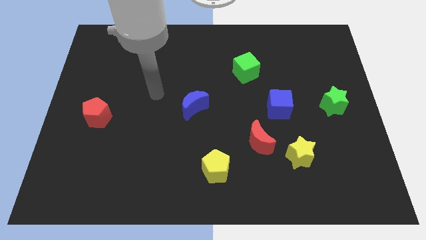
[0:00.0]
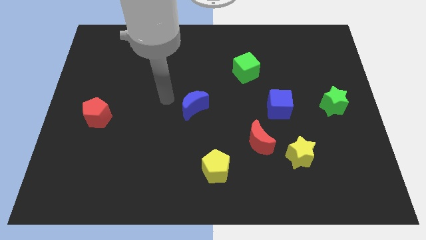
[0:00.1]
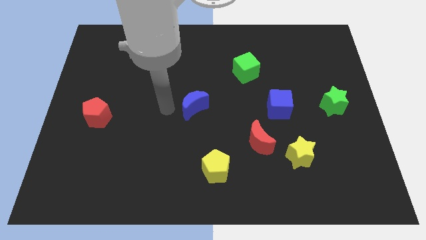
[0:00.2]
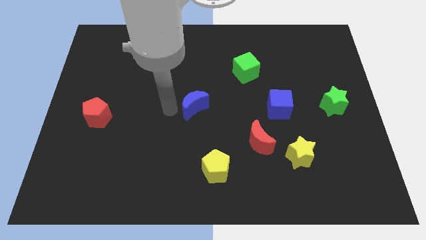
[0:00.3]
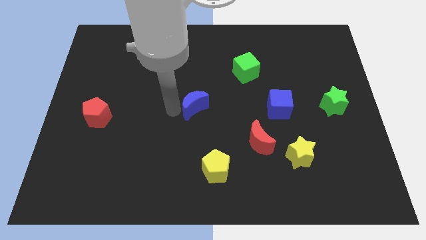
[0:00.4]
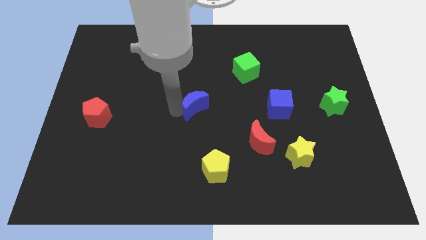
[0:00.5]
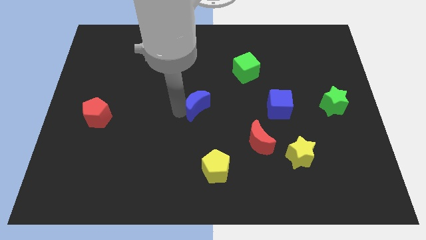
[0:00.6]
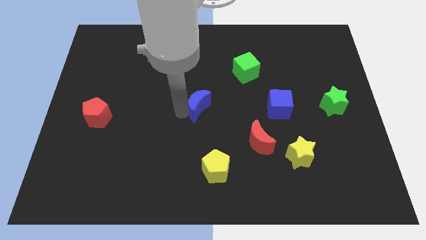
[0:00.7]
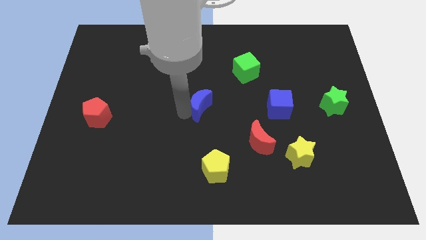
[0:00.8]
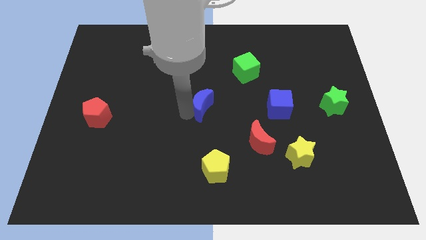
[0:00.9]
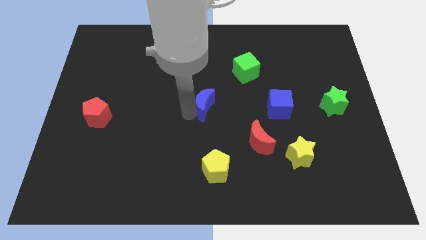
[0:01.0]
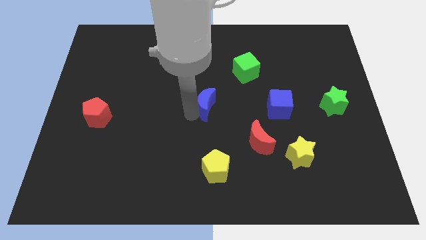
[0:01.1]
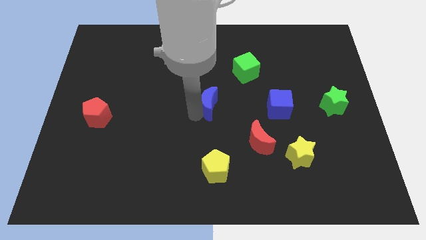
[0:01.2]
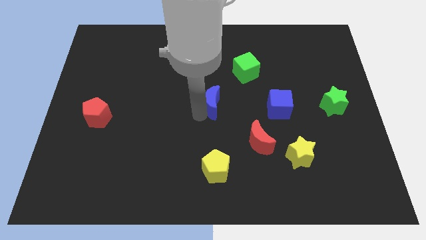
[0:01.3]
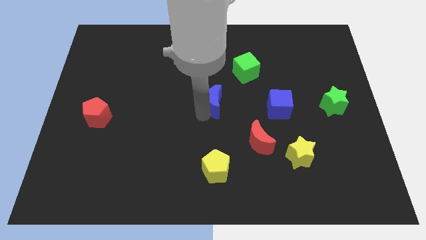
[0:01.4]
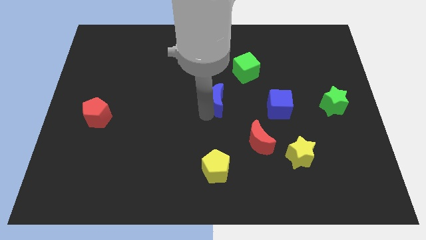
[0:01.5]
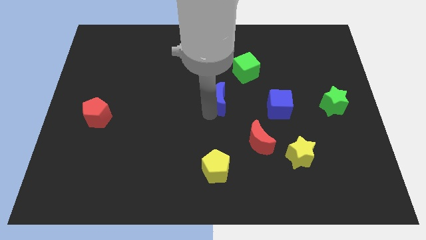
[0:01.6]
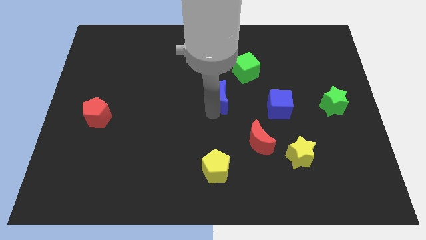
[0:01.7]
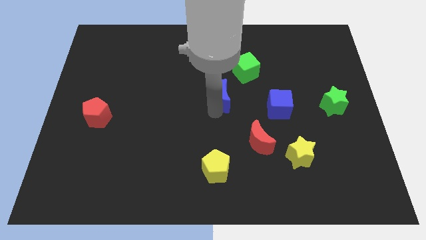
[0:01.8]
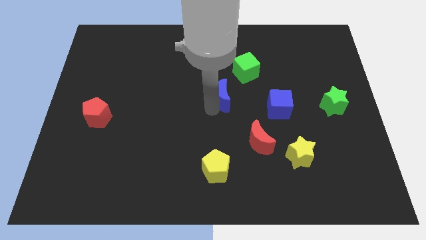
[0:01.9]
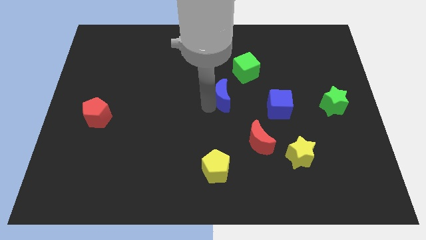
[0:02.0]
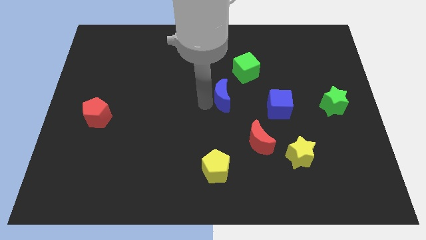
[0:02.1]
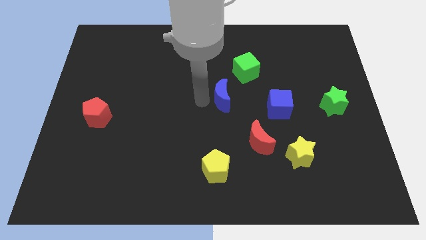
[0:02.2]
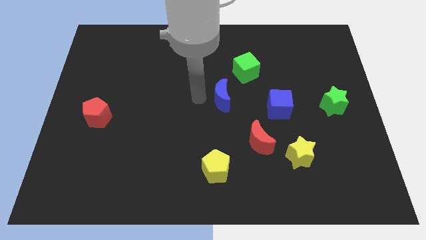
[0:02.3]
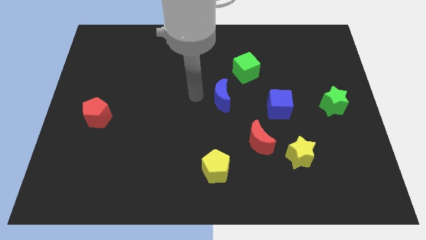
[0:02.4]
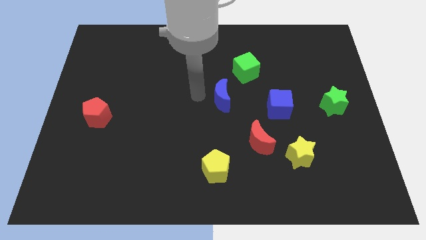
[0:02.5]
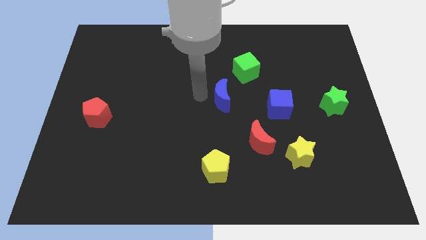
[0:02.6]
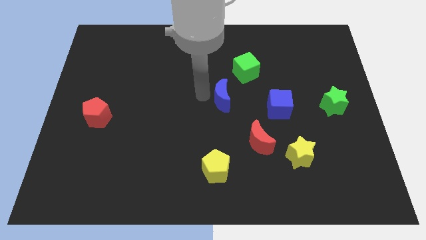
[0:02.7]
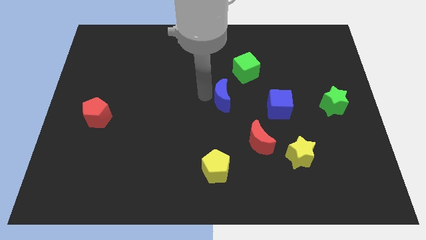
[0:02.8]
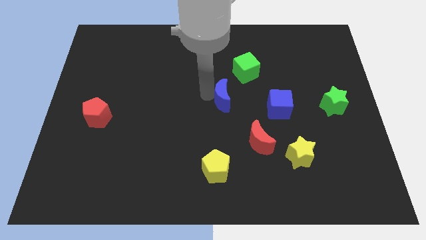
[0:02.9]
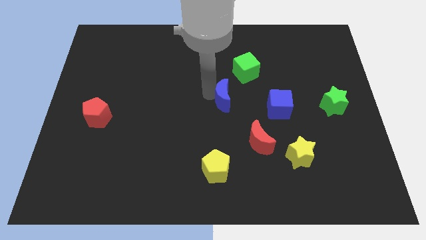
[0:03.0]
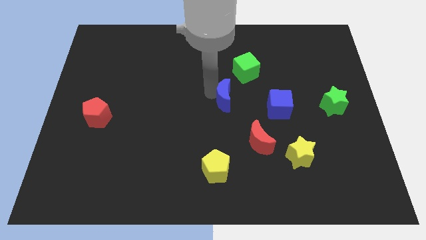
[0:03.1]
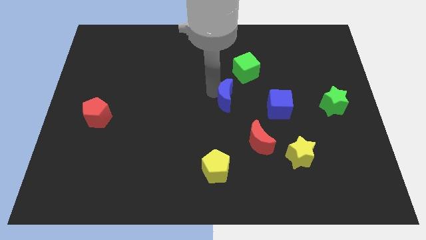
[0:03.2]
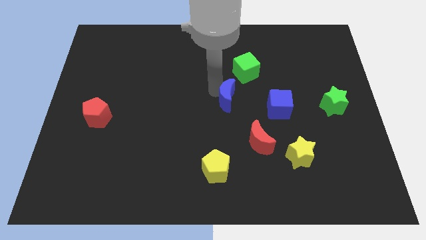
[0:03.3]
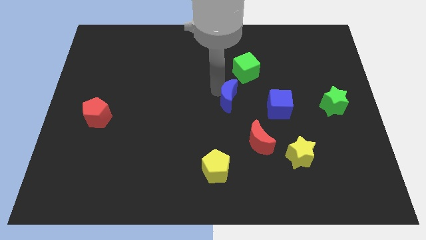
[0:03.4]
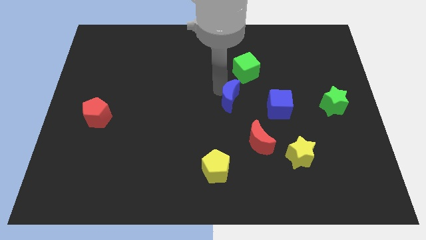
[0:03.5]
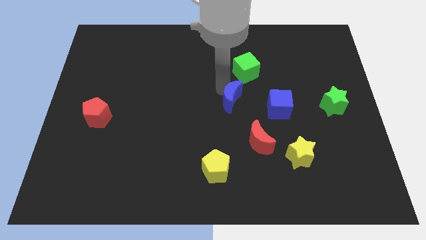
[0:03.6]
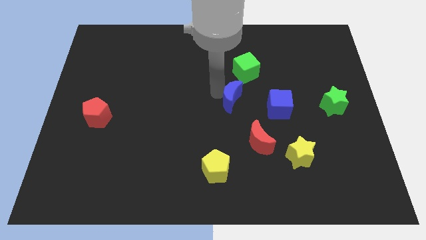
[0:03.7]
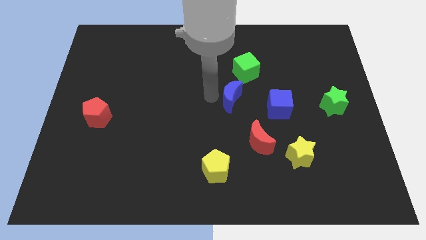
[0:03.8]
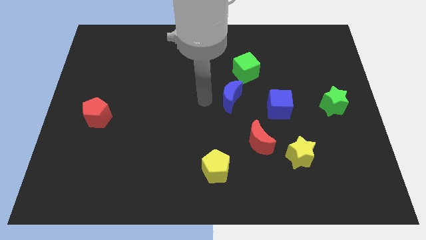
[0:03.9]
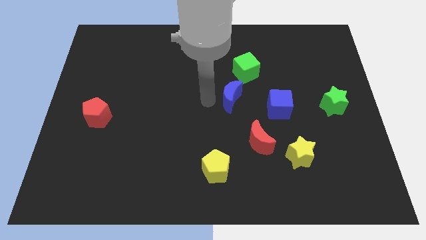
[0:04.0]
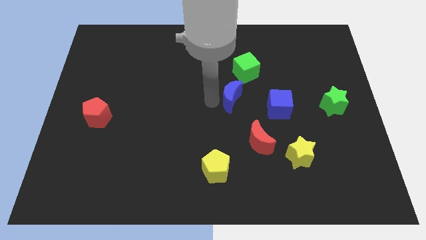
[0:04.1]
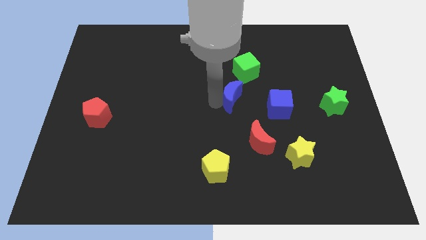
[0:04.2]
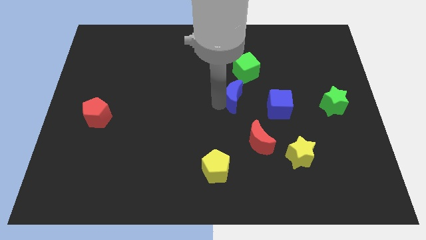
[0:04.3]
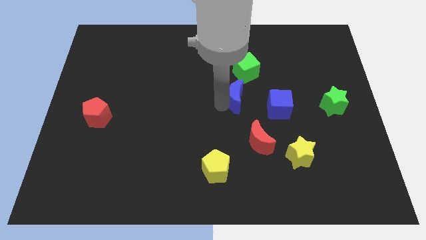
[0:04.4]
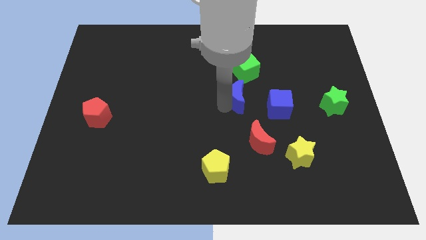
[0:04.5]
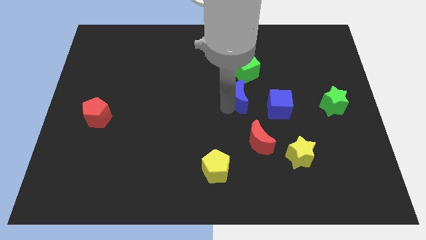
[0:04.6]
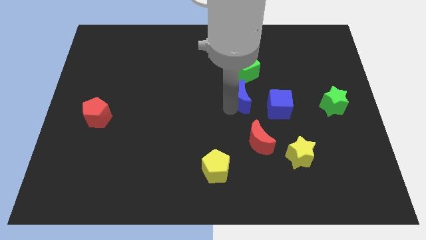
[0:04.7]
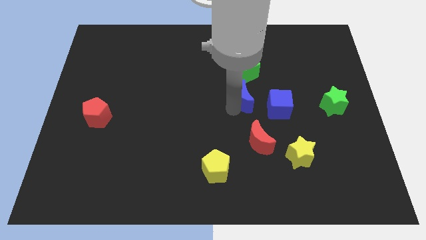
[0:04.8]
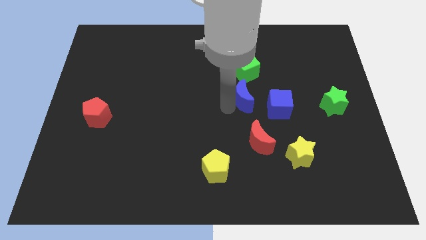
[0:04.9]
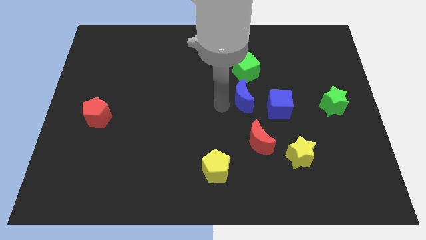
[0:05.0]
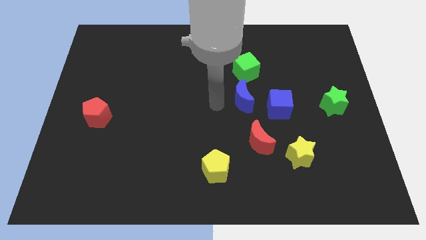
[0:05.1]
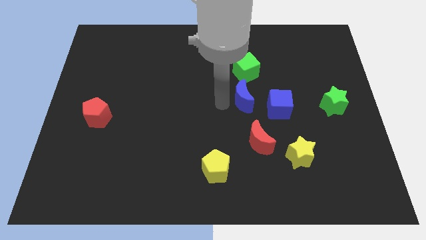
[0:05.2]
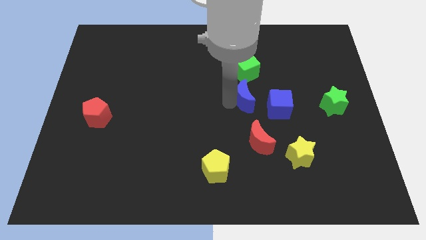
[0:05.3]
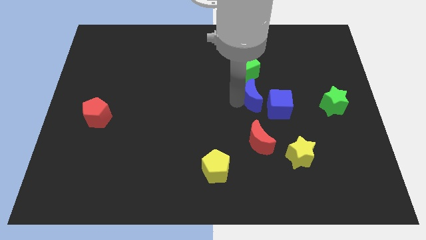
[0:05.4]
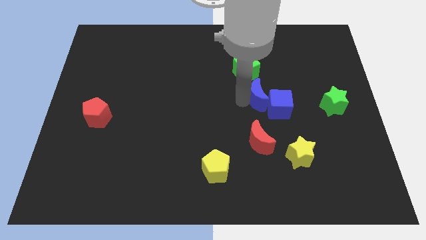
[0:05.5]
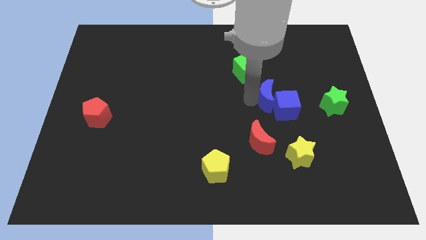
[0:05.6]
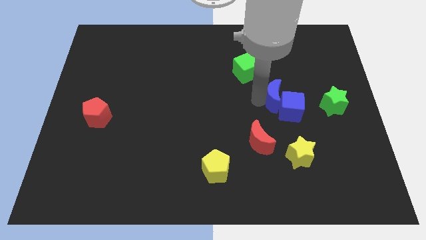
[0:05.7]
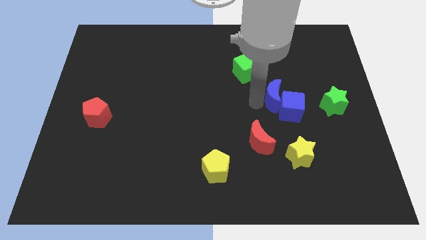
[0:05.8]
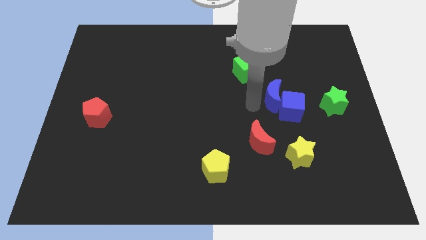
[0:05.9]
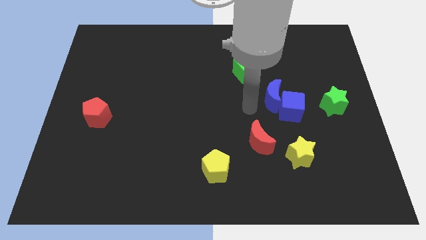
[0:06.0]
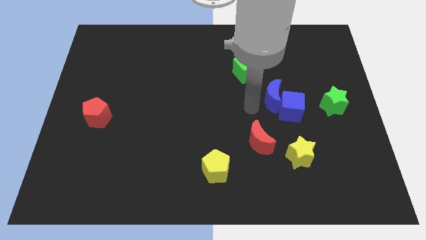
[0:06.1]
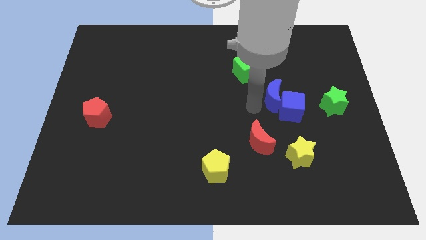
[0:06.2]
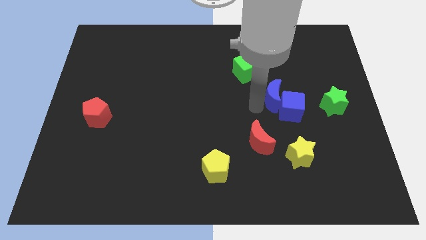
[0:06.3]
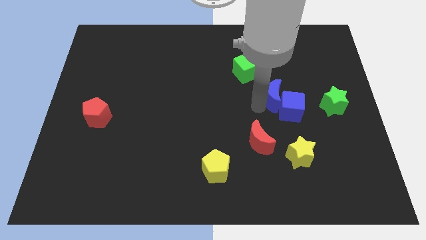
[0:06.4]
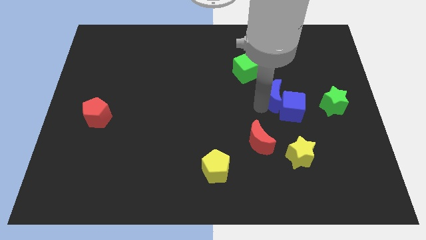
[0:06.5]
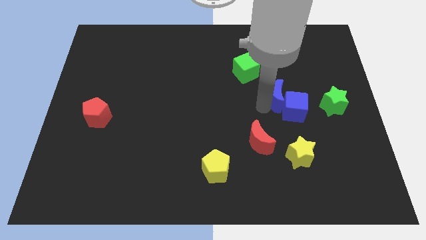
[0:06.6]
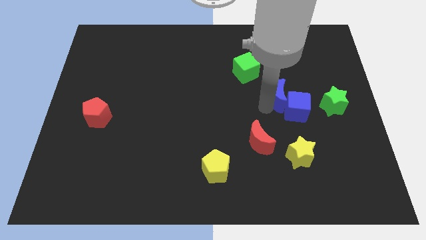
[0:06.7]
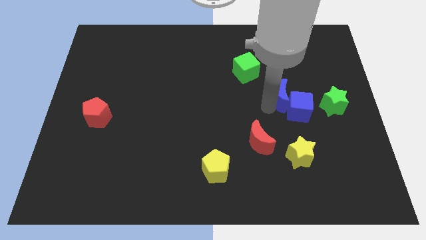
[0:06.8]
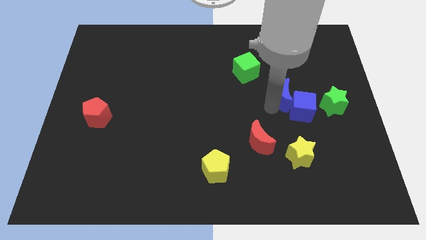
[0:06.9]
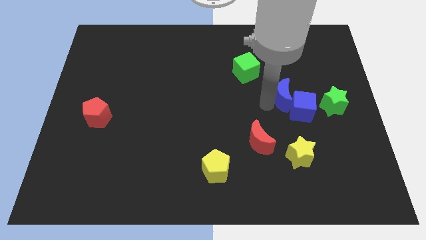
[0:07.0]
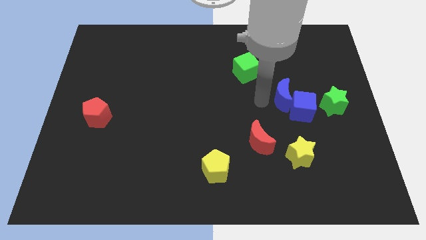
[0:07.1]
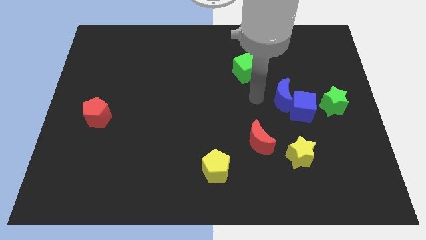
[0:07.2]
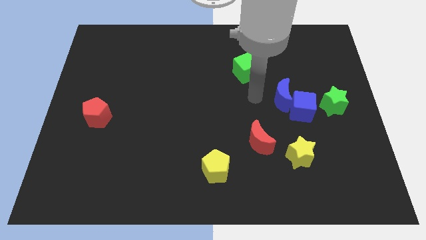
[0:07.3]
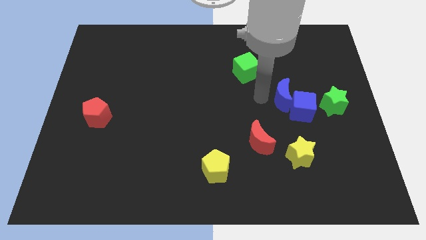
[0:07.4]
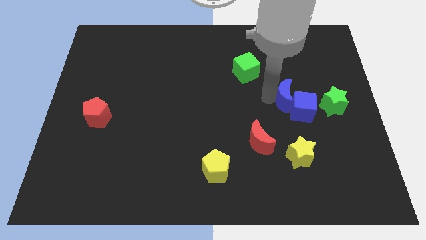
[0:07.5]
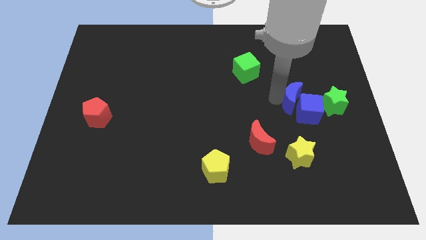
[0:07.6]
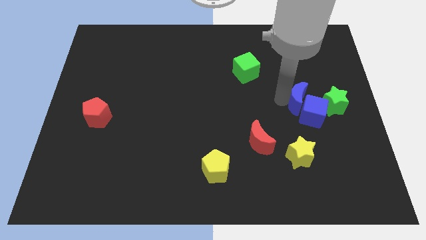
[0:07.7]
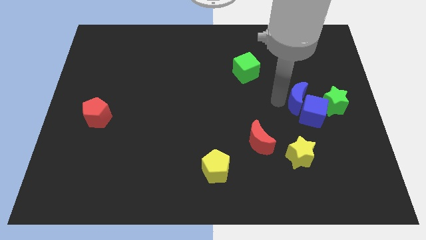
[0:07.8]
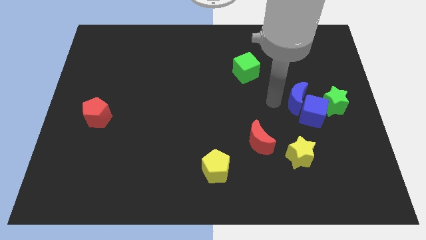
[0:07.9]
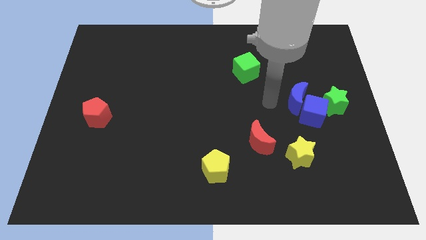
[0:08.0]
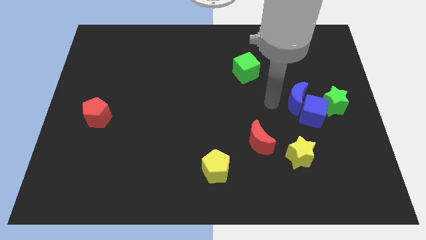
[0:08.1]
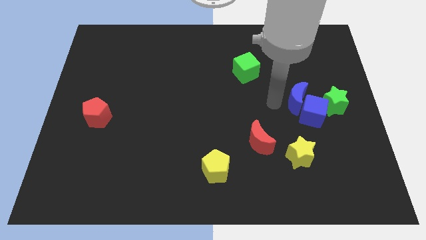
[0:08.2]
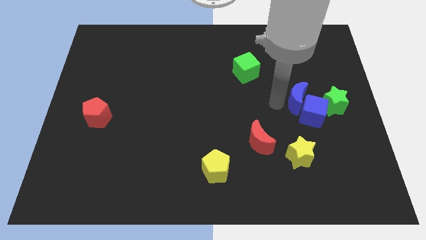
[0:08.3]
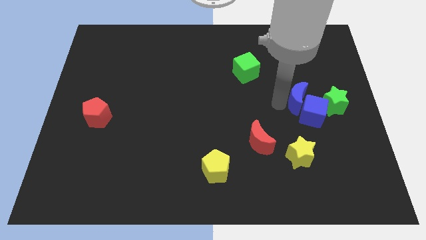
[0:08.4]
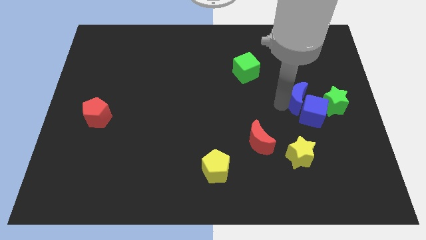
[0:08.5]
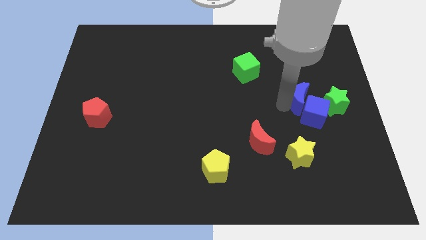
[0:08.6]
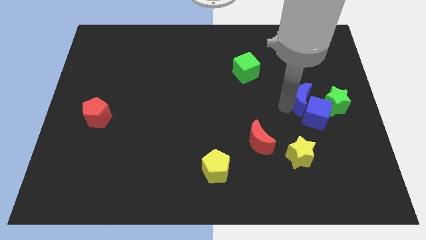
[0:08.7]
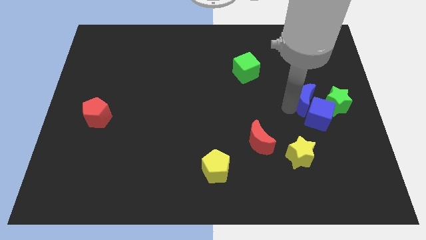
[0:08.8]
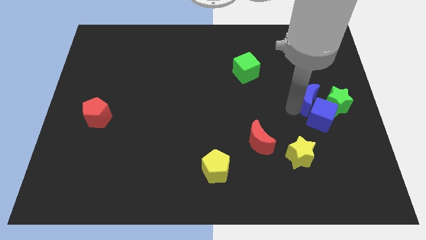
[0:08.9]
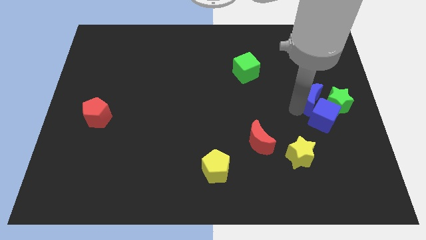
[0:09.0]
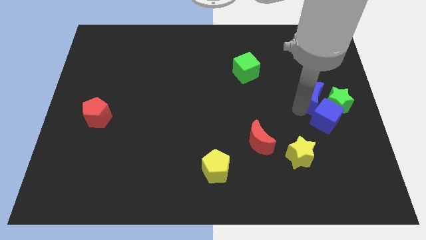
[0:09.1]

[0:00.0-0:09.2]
slide the blue moon to the green star
